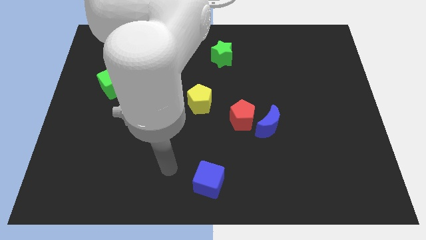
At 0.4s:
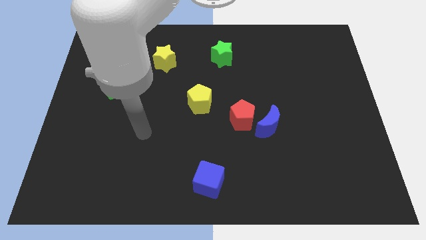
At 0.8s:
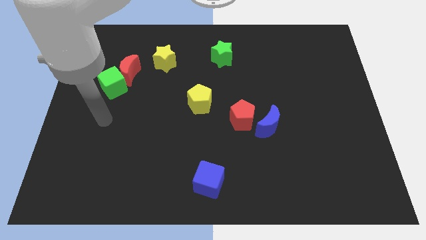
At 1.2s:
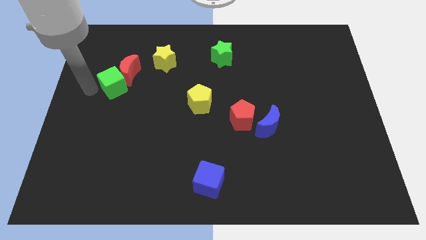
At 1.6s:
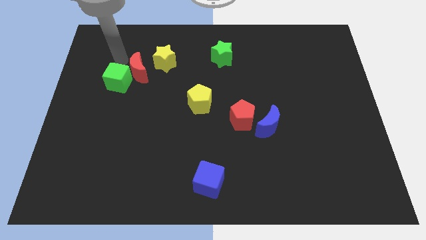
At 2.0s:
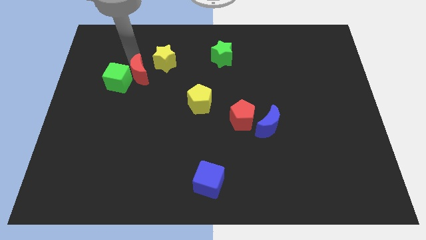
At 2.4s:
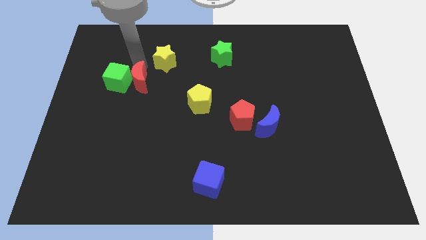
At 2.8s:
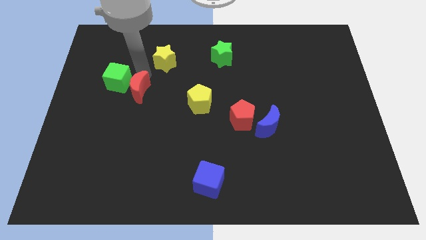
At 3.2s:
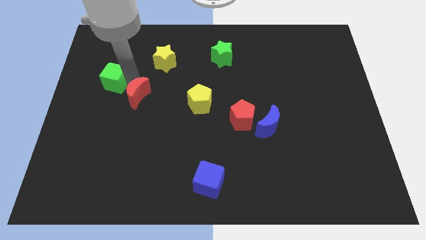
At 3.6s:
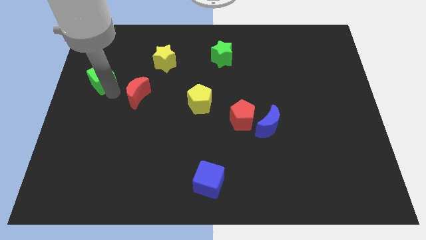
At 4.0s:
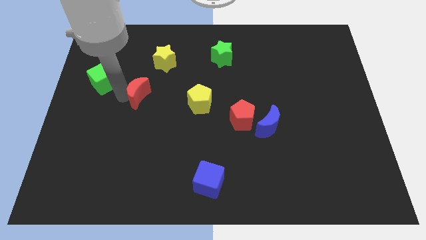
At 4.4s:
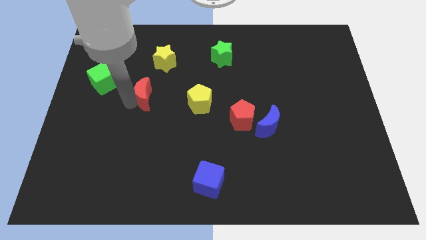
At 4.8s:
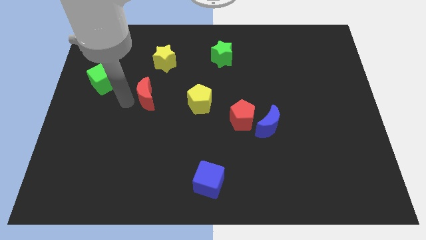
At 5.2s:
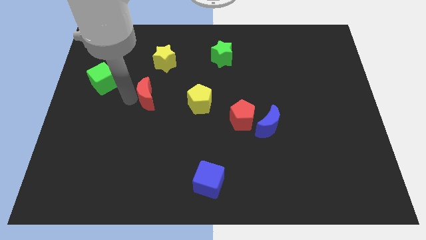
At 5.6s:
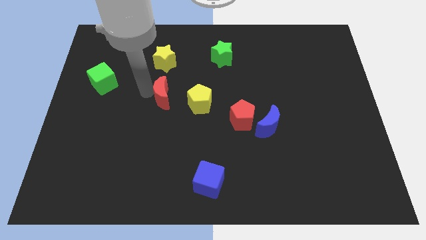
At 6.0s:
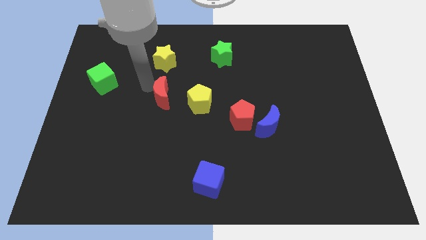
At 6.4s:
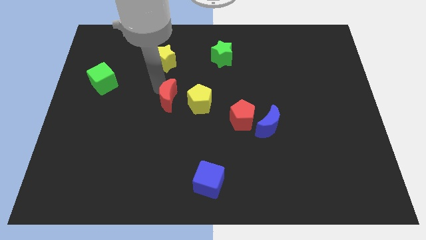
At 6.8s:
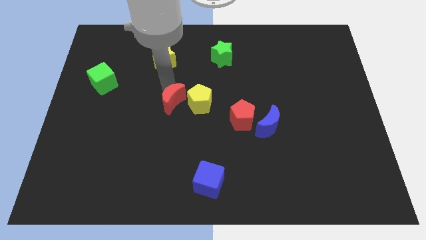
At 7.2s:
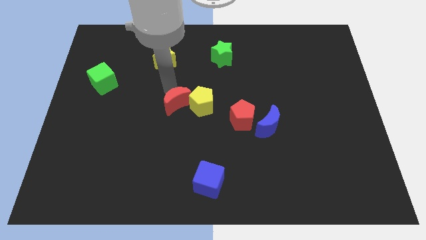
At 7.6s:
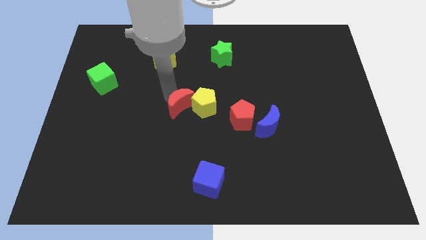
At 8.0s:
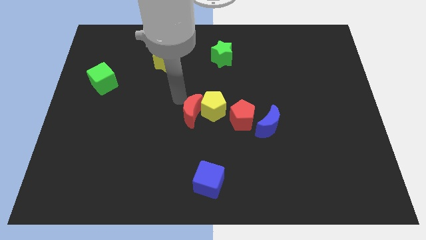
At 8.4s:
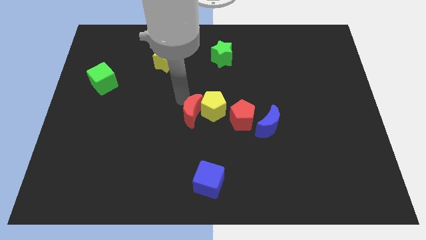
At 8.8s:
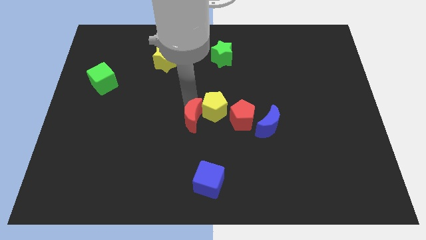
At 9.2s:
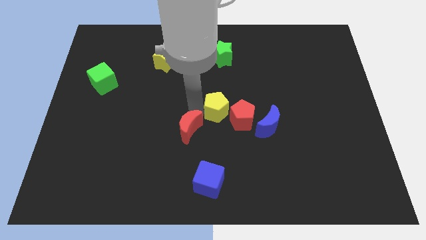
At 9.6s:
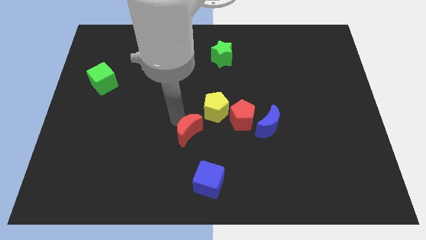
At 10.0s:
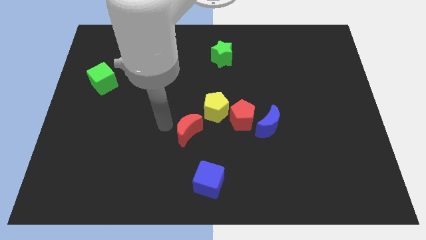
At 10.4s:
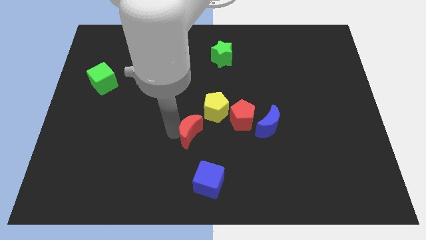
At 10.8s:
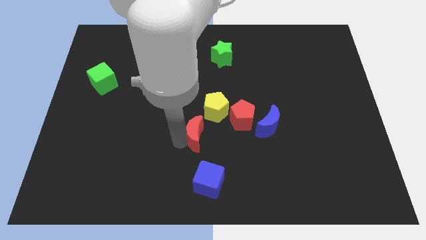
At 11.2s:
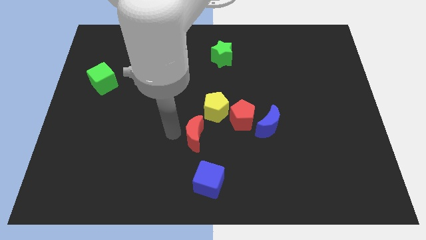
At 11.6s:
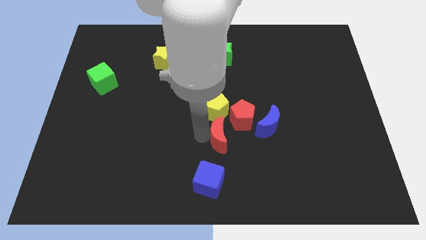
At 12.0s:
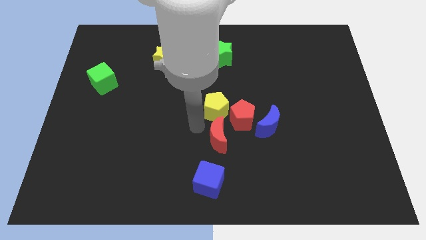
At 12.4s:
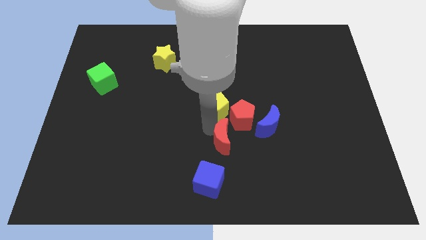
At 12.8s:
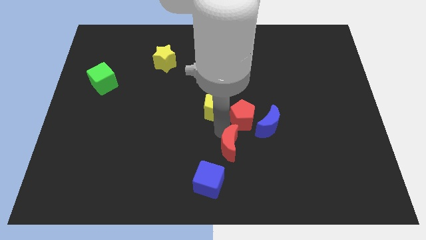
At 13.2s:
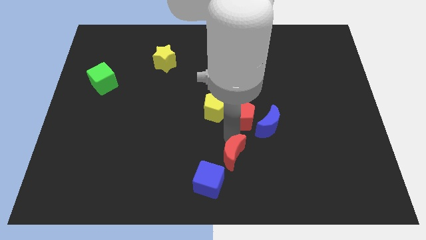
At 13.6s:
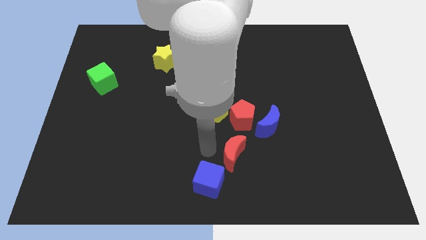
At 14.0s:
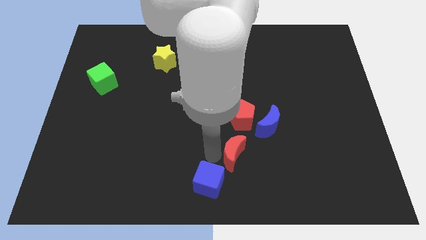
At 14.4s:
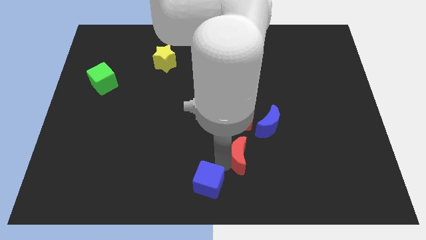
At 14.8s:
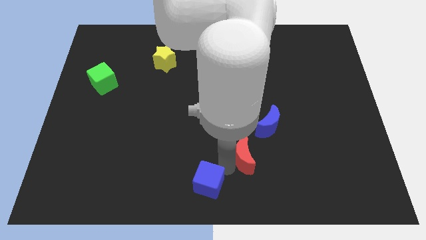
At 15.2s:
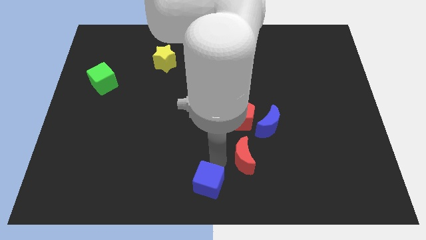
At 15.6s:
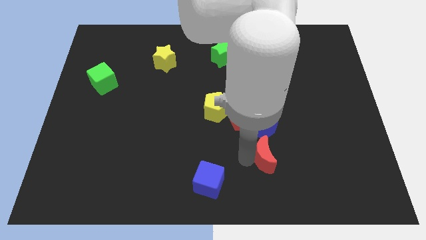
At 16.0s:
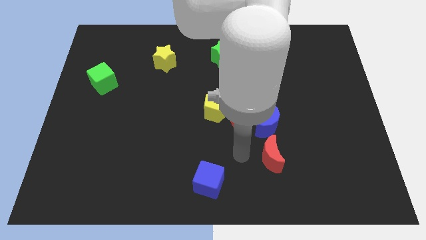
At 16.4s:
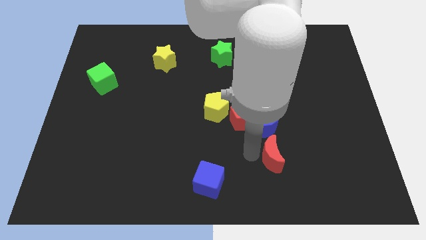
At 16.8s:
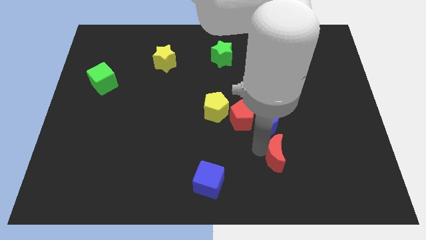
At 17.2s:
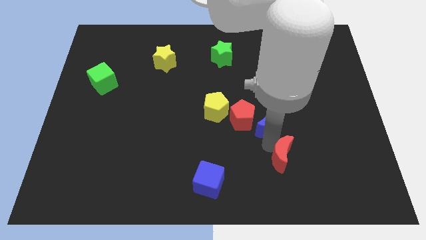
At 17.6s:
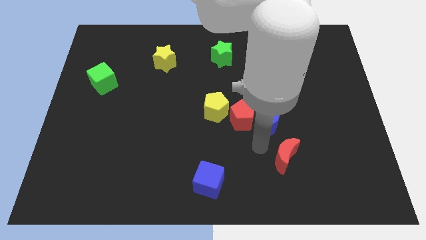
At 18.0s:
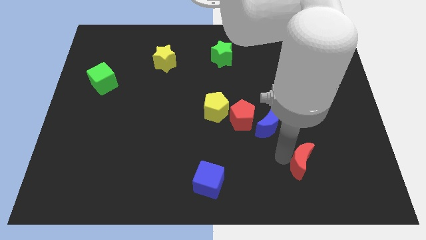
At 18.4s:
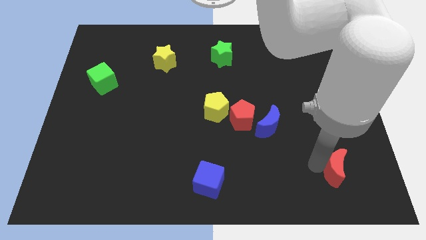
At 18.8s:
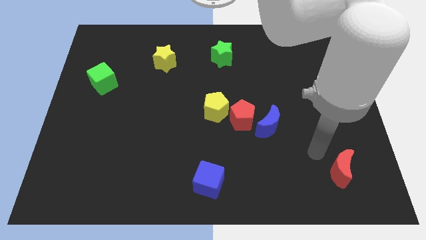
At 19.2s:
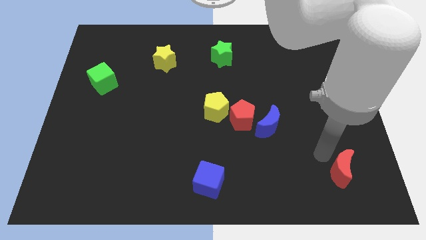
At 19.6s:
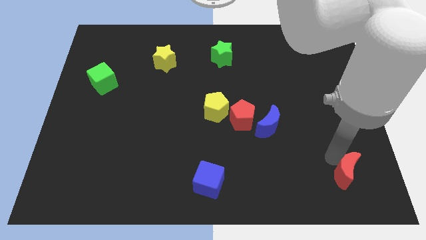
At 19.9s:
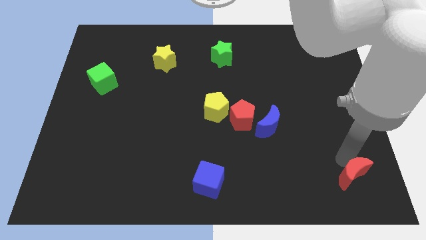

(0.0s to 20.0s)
put the red moon to the bottom right corner

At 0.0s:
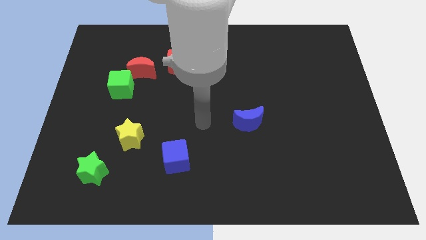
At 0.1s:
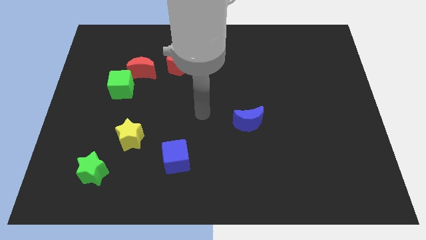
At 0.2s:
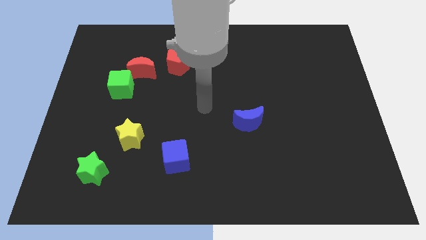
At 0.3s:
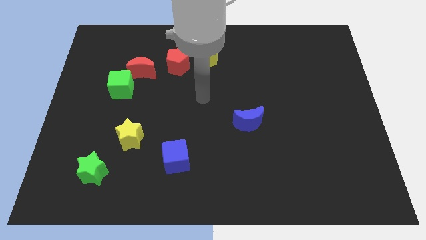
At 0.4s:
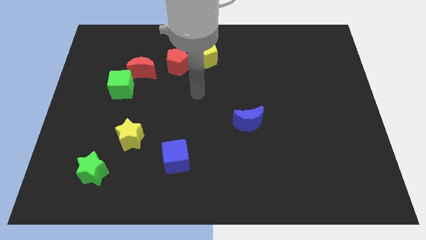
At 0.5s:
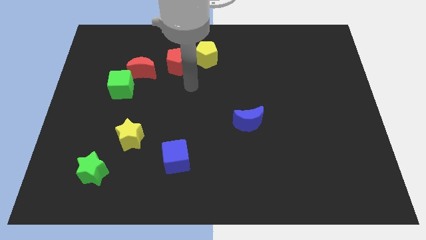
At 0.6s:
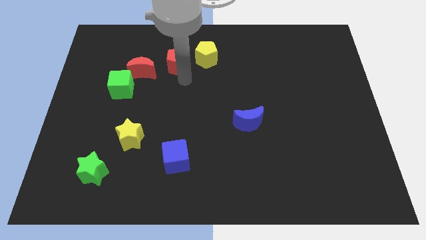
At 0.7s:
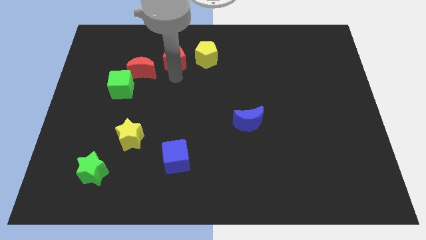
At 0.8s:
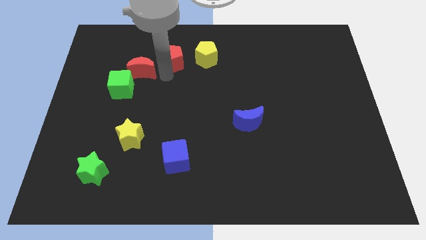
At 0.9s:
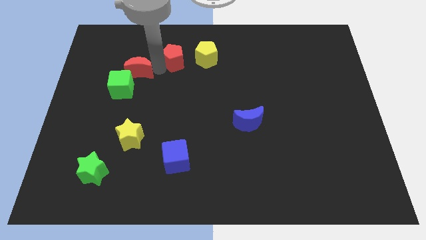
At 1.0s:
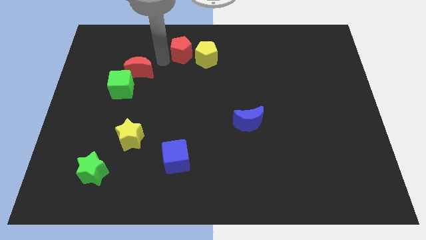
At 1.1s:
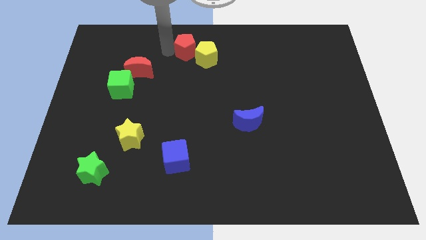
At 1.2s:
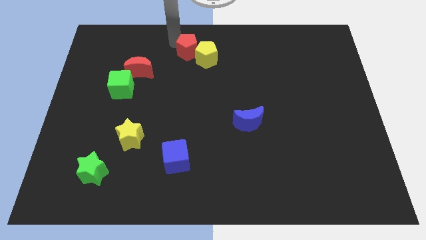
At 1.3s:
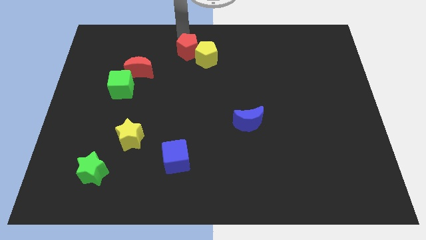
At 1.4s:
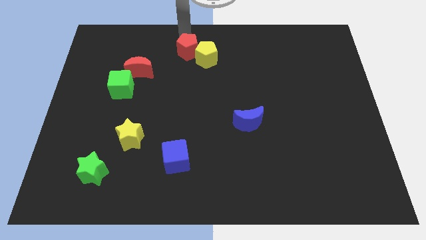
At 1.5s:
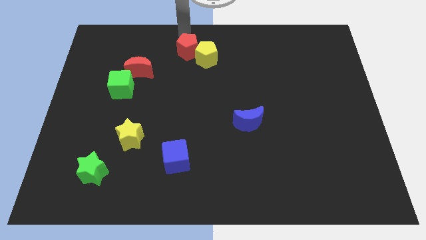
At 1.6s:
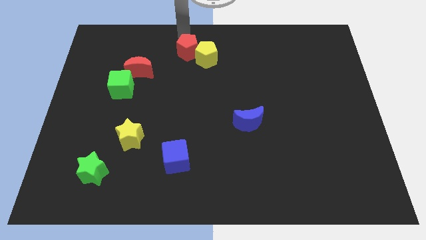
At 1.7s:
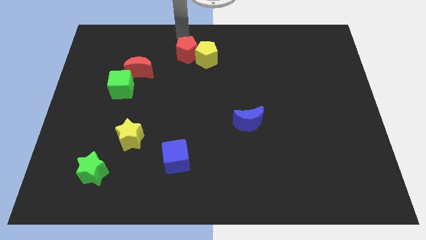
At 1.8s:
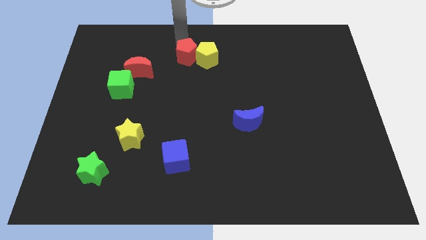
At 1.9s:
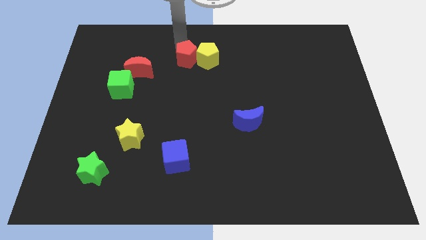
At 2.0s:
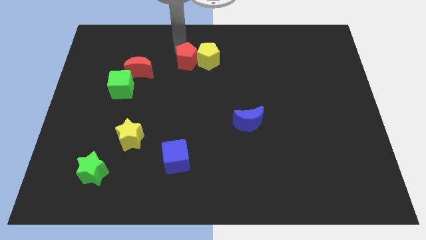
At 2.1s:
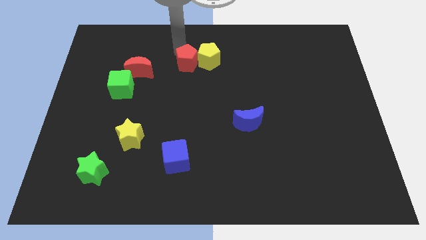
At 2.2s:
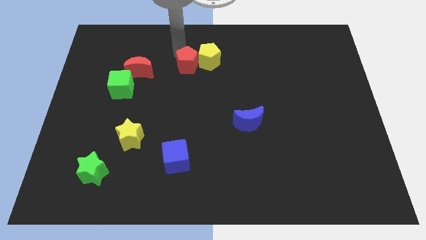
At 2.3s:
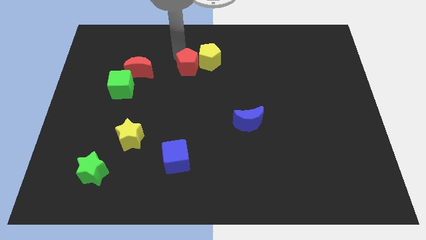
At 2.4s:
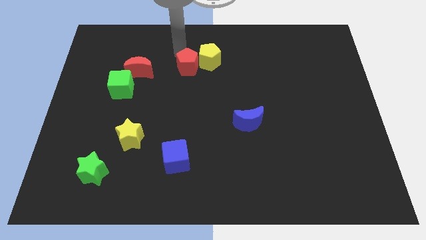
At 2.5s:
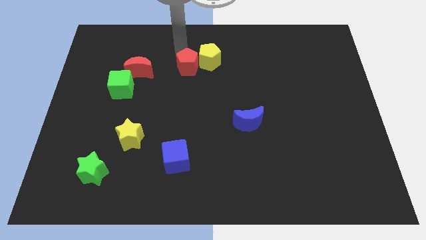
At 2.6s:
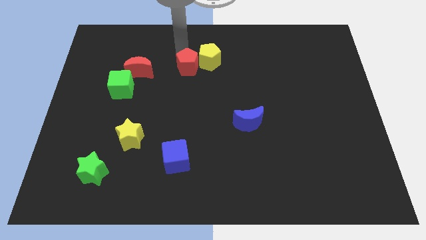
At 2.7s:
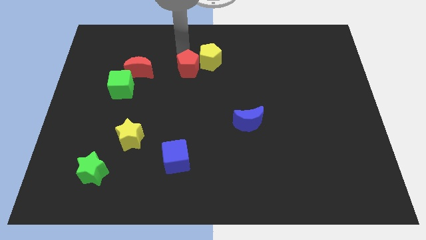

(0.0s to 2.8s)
slide the red pentagon to the middle
